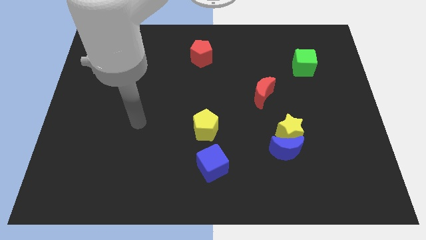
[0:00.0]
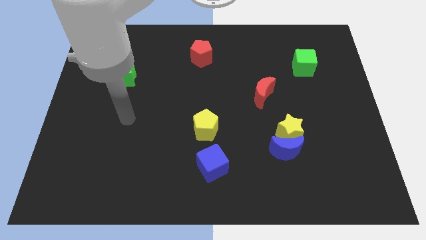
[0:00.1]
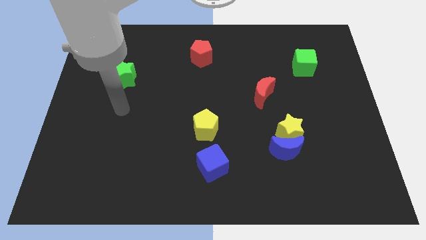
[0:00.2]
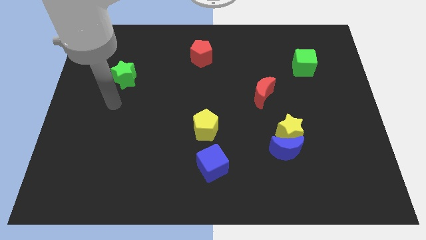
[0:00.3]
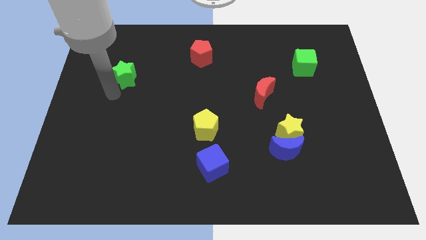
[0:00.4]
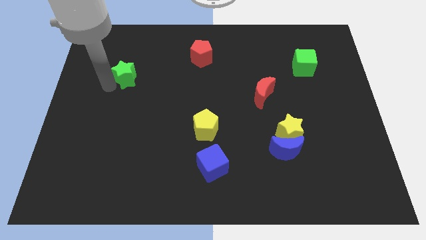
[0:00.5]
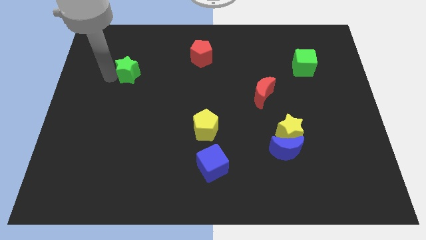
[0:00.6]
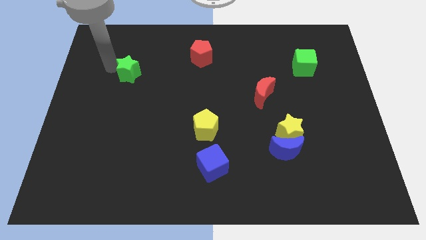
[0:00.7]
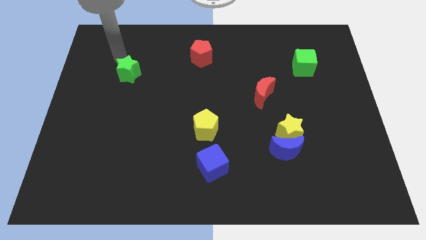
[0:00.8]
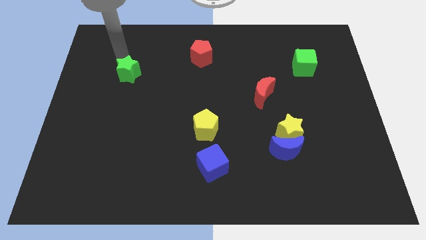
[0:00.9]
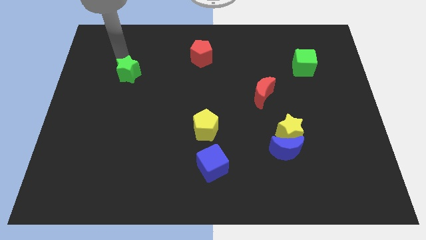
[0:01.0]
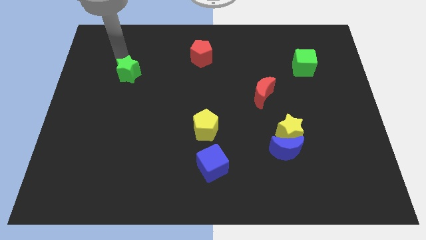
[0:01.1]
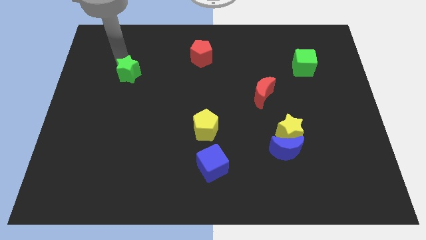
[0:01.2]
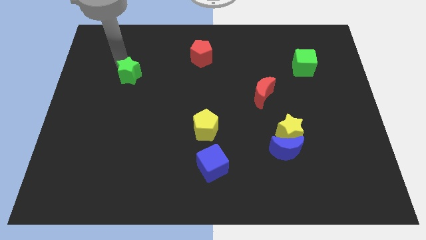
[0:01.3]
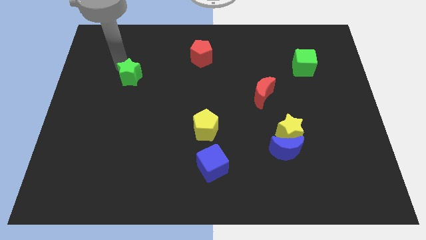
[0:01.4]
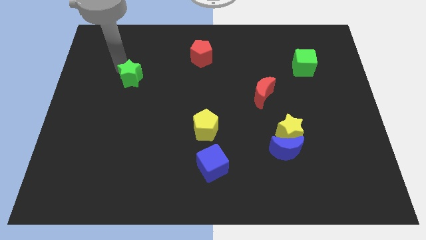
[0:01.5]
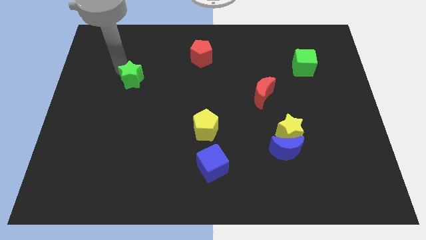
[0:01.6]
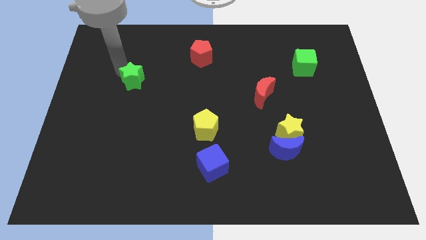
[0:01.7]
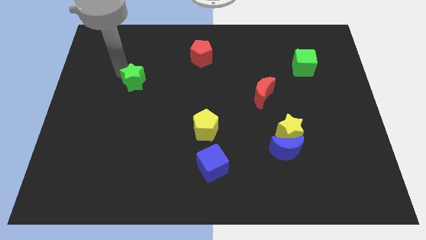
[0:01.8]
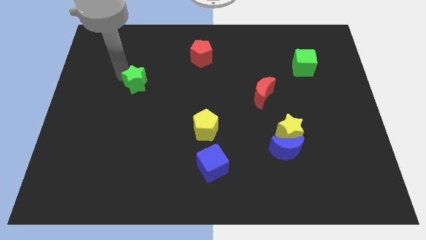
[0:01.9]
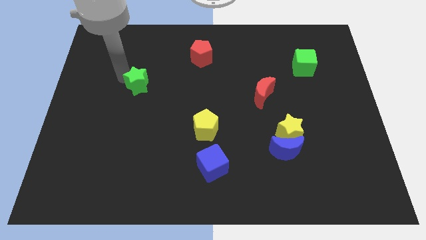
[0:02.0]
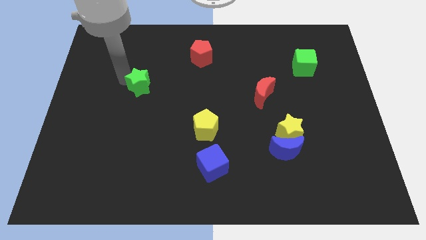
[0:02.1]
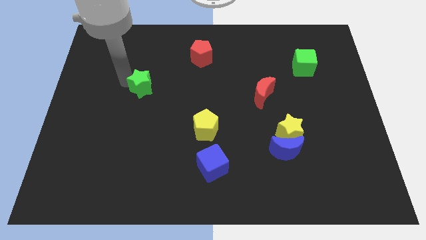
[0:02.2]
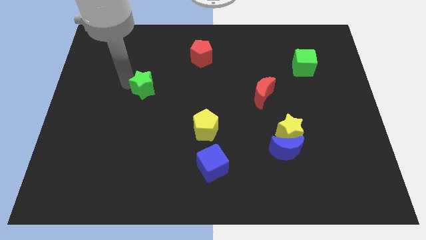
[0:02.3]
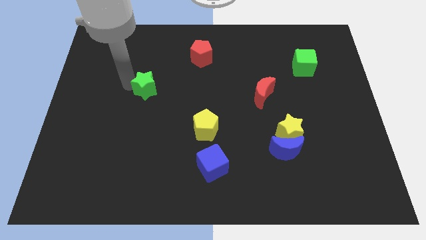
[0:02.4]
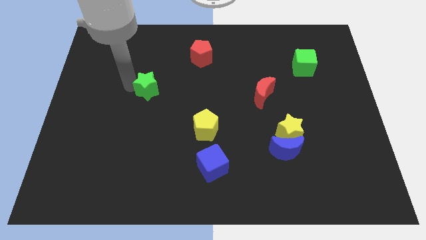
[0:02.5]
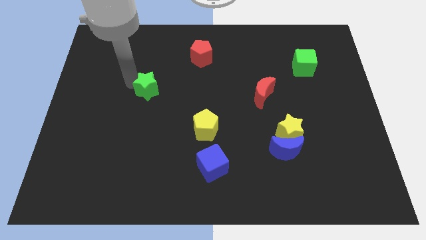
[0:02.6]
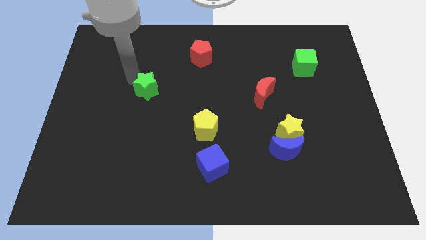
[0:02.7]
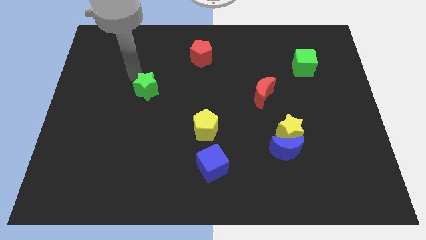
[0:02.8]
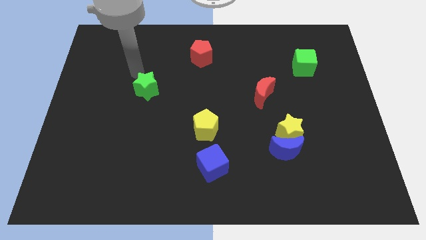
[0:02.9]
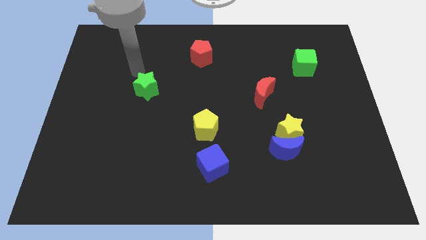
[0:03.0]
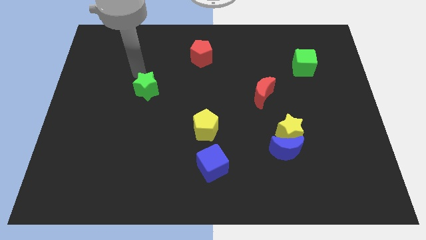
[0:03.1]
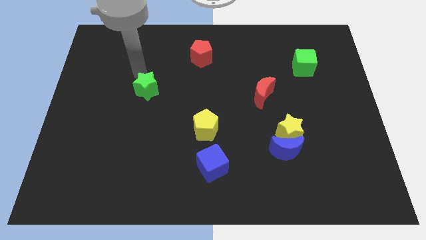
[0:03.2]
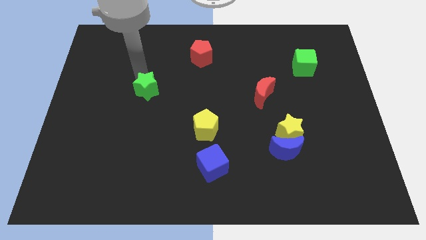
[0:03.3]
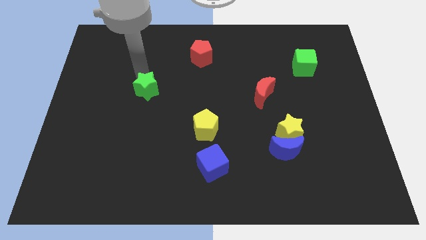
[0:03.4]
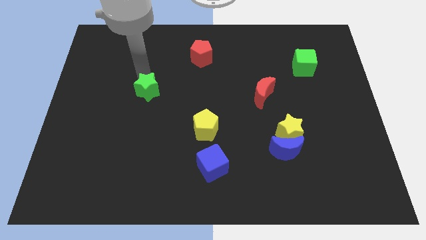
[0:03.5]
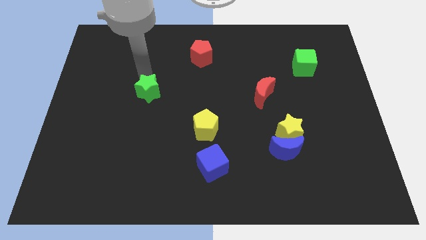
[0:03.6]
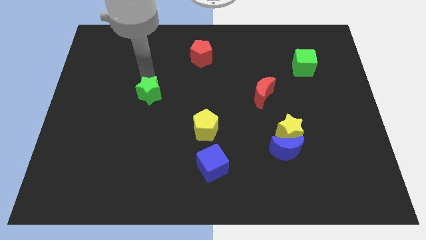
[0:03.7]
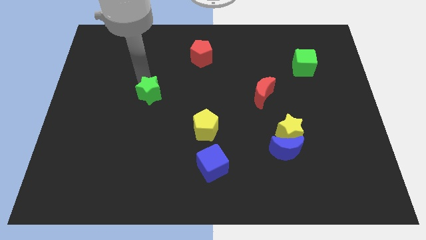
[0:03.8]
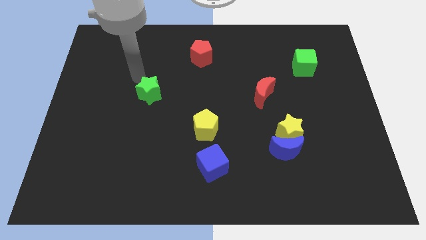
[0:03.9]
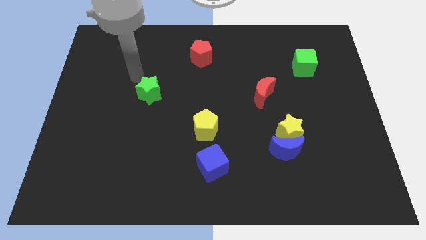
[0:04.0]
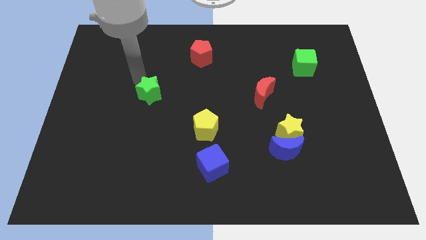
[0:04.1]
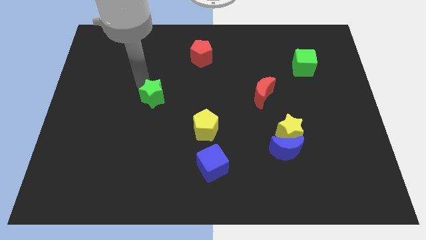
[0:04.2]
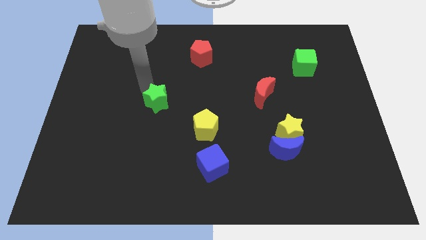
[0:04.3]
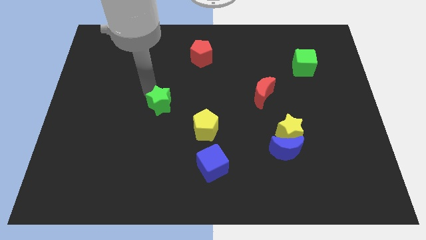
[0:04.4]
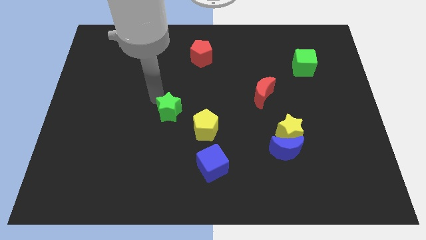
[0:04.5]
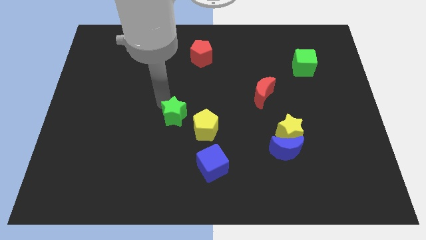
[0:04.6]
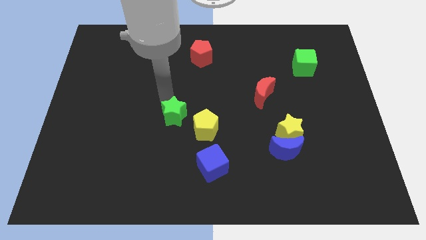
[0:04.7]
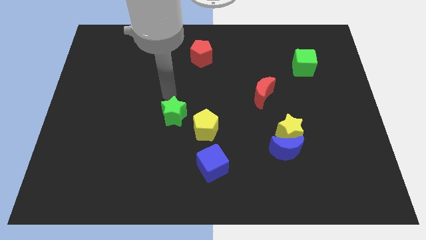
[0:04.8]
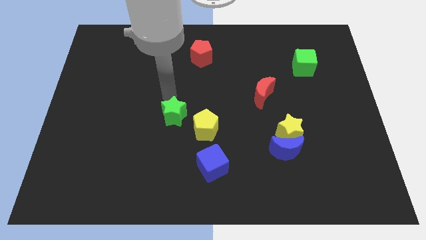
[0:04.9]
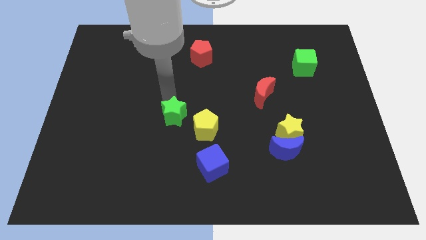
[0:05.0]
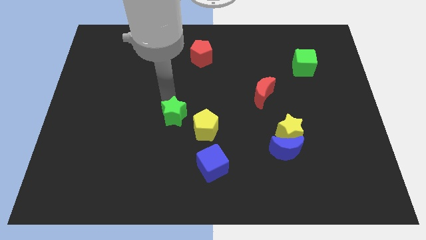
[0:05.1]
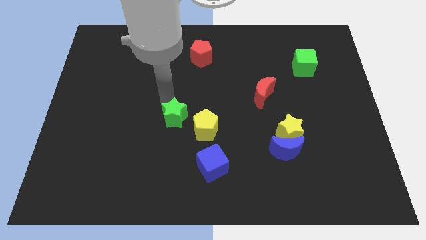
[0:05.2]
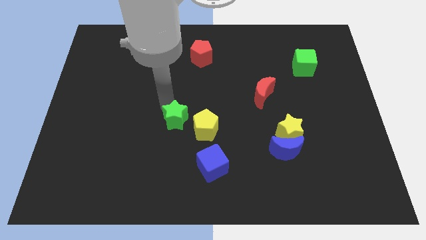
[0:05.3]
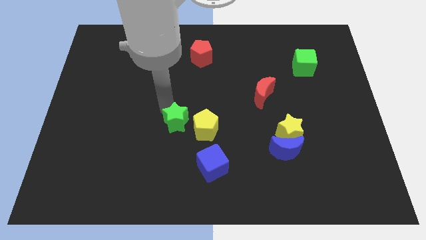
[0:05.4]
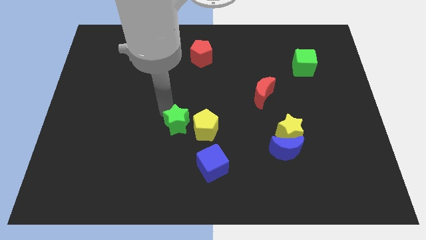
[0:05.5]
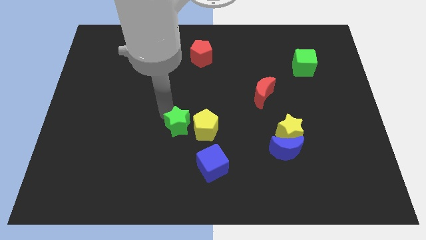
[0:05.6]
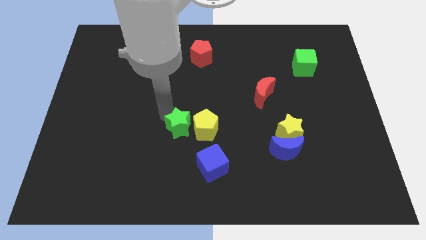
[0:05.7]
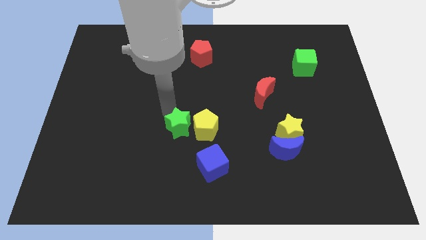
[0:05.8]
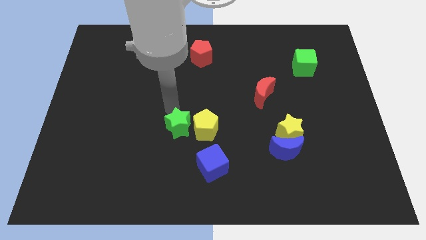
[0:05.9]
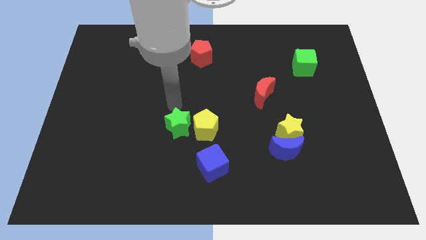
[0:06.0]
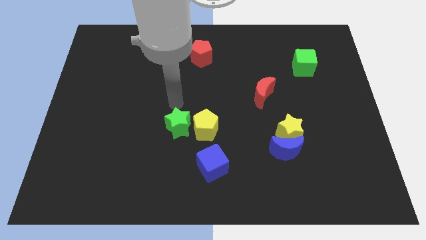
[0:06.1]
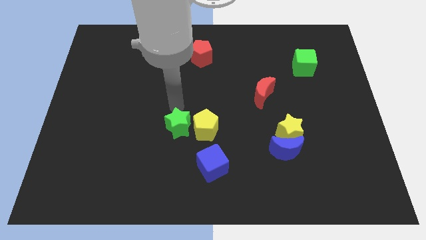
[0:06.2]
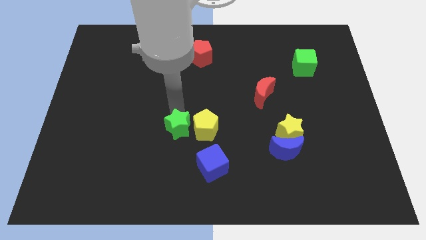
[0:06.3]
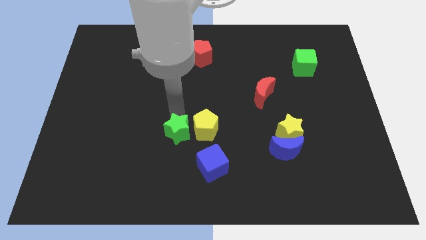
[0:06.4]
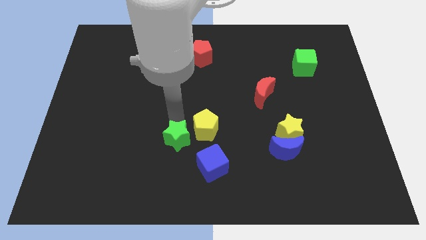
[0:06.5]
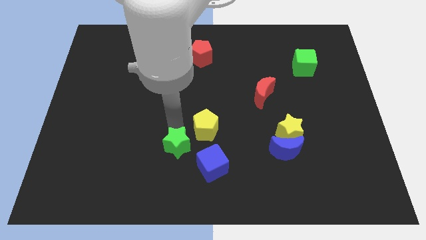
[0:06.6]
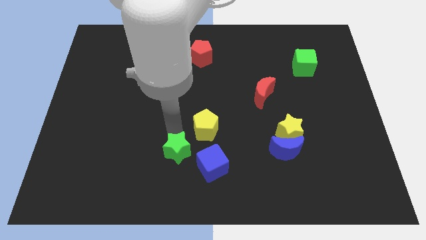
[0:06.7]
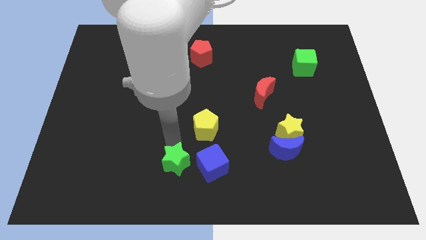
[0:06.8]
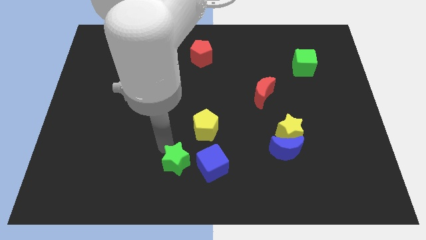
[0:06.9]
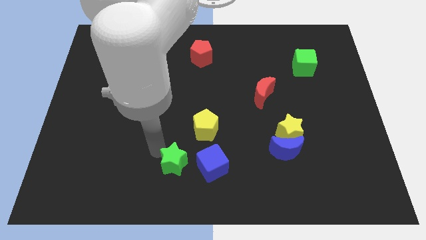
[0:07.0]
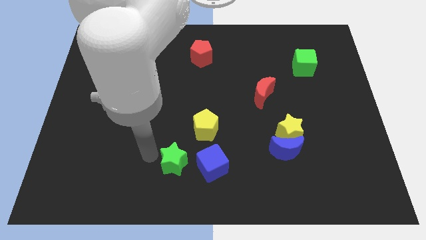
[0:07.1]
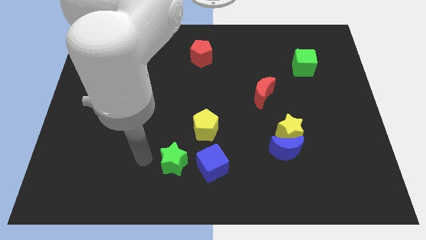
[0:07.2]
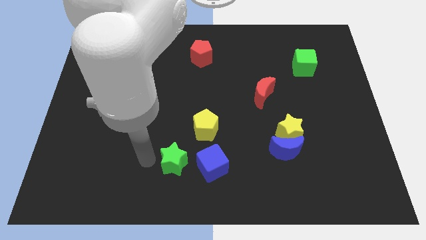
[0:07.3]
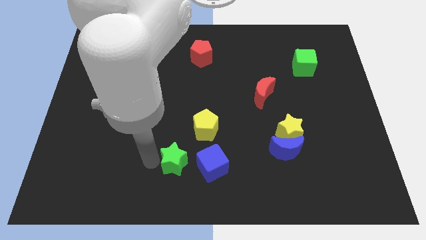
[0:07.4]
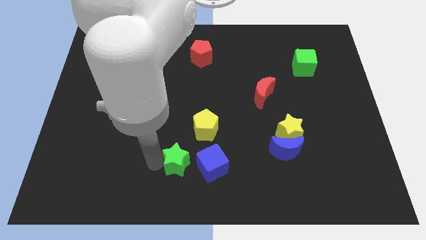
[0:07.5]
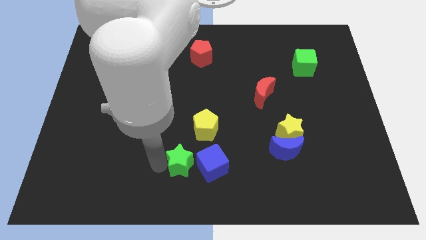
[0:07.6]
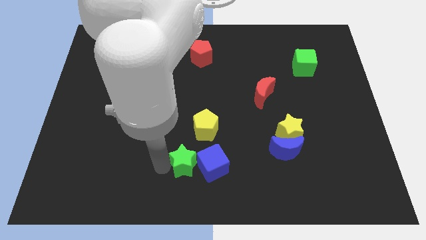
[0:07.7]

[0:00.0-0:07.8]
slide the green star towards the blue cube
